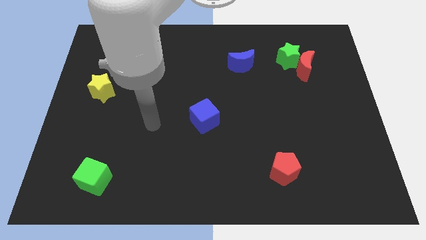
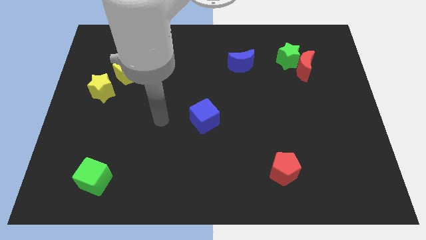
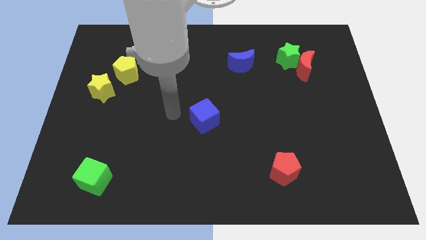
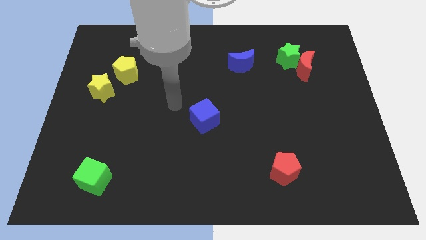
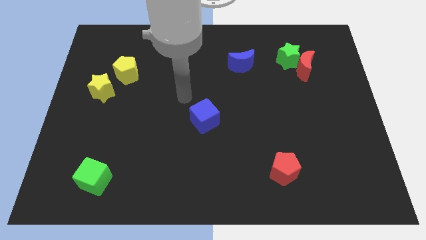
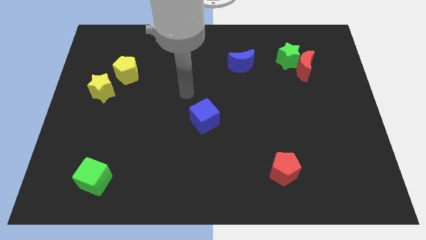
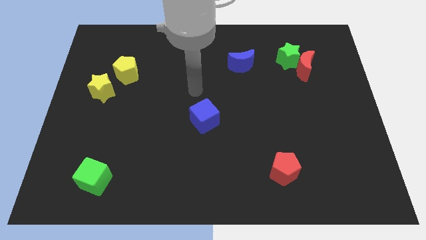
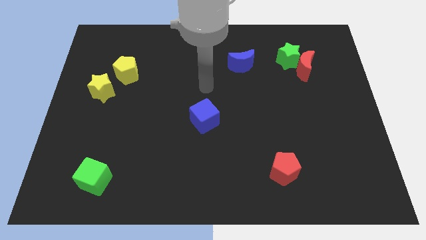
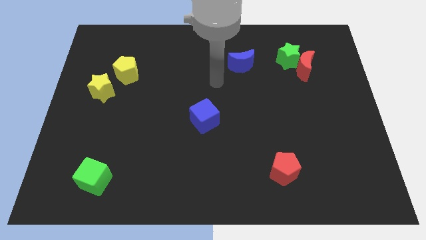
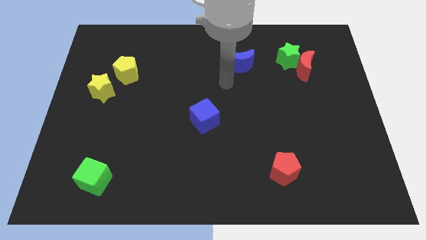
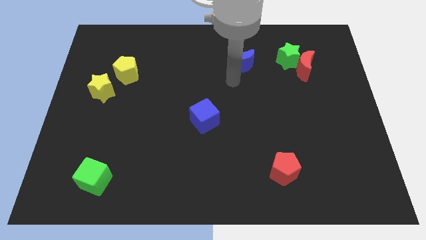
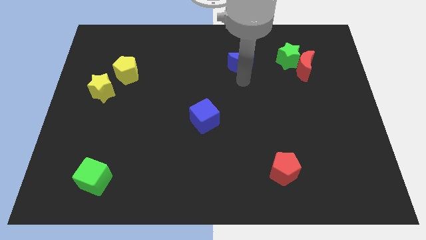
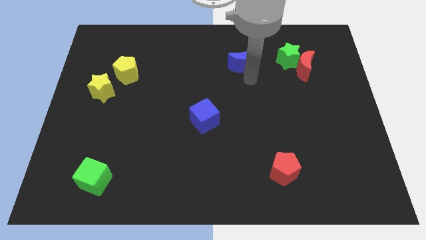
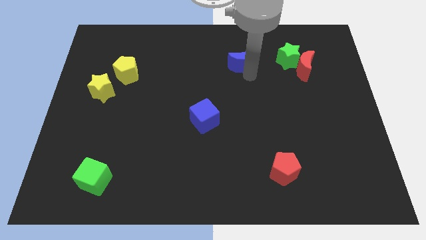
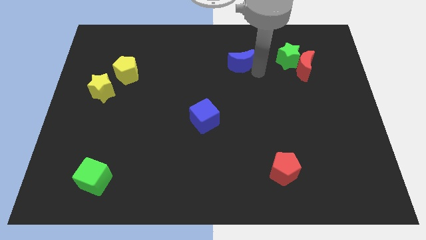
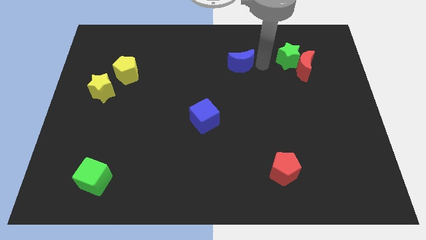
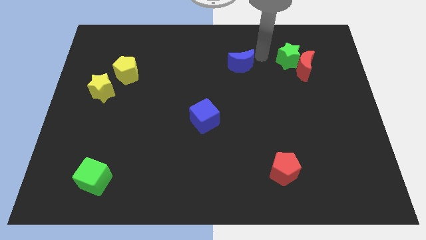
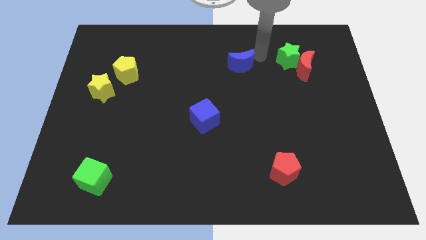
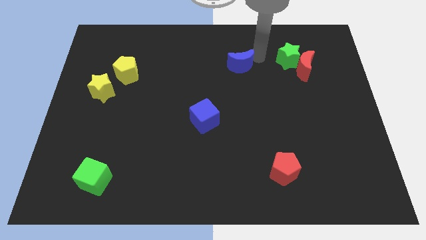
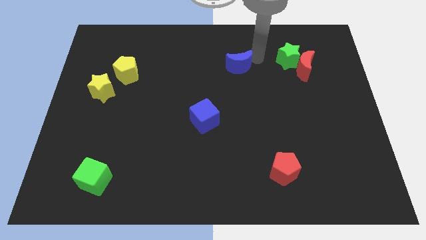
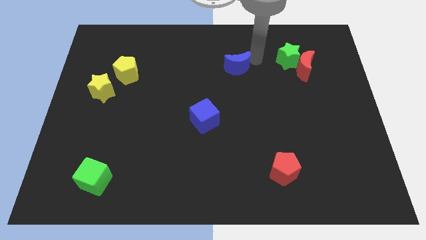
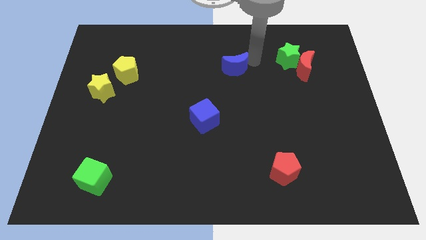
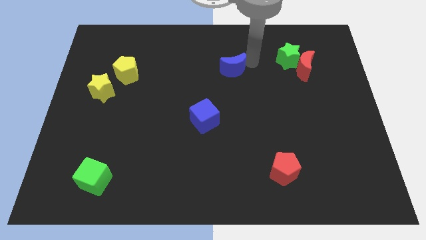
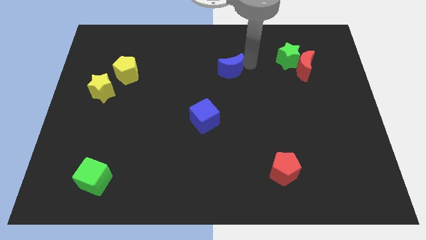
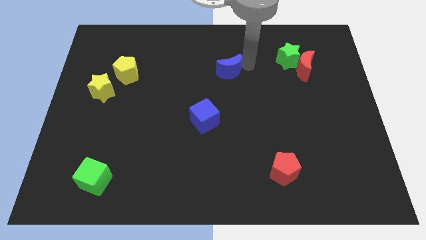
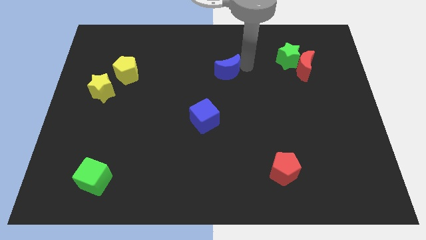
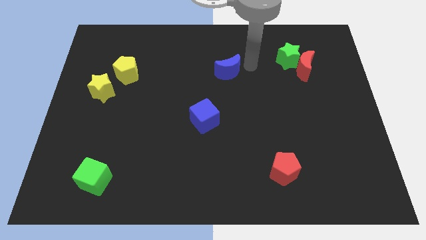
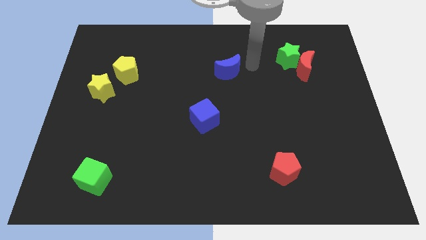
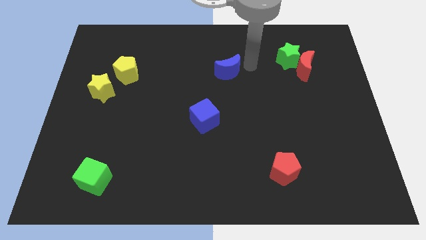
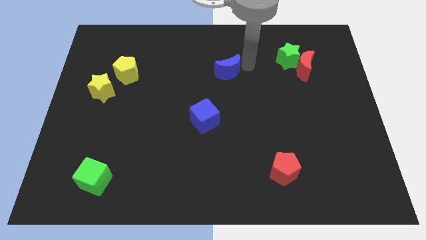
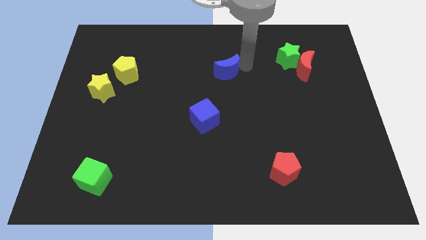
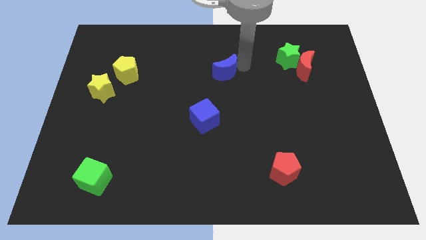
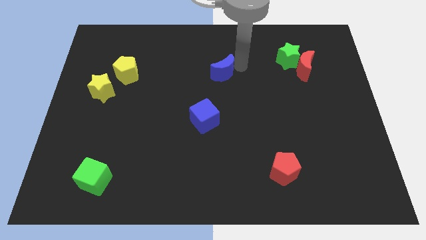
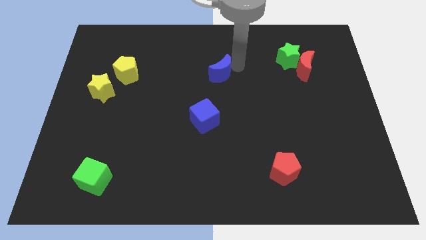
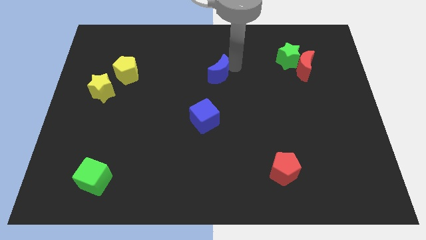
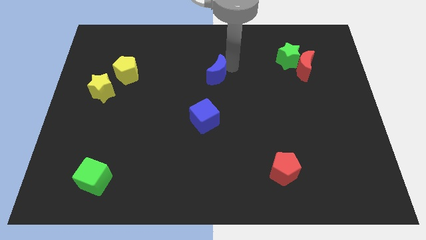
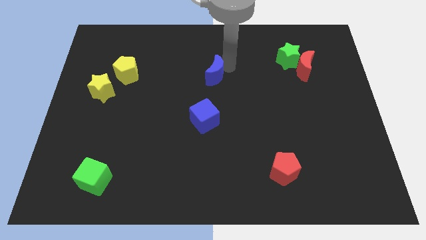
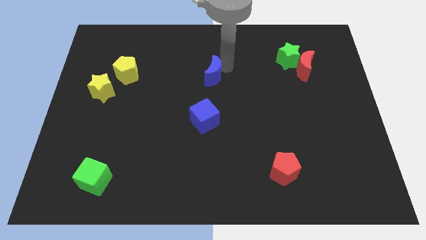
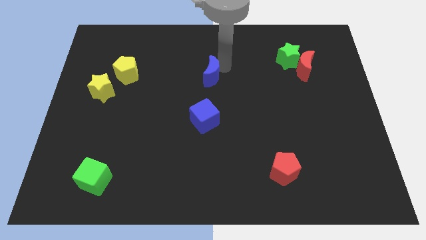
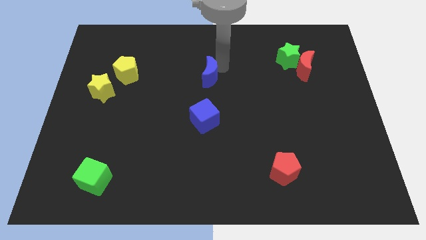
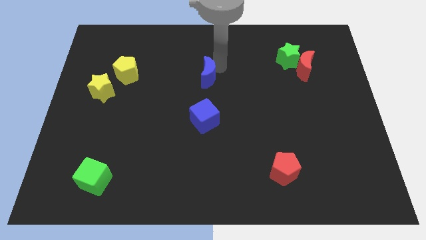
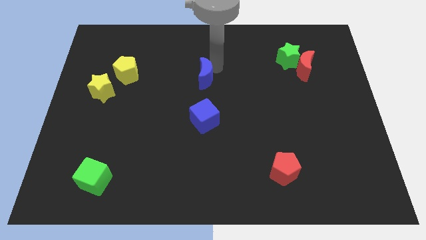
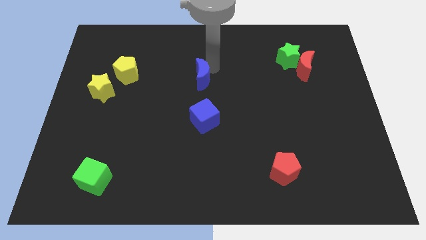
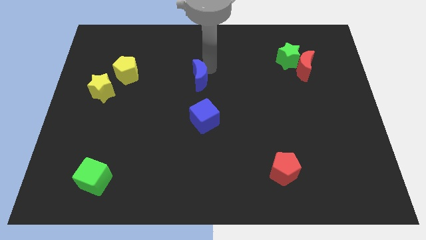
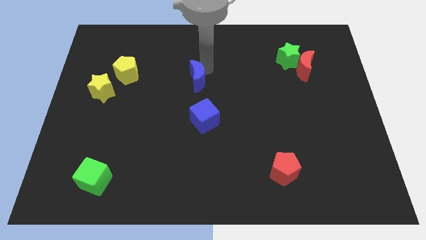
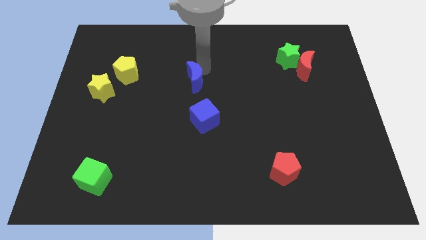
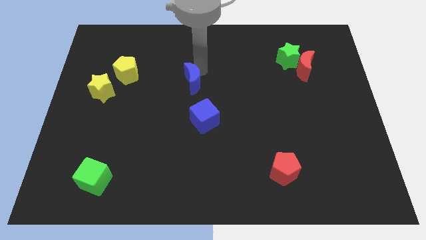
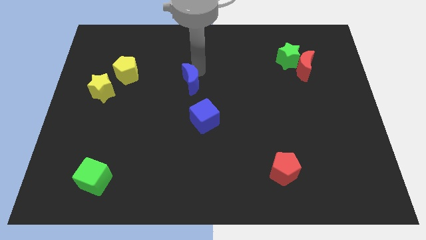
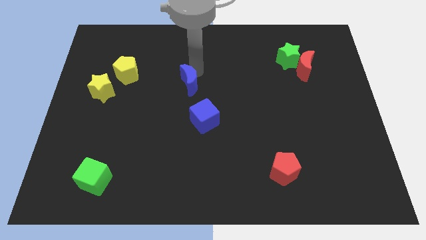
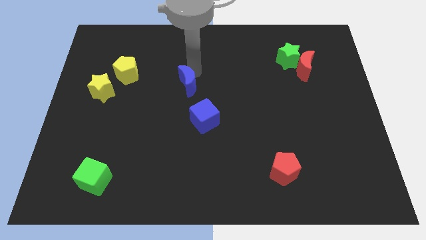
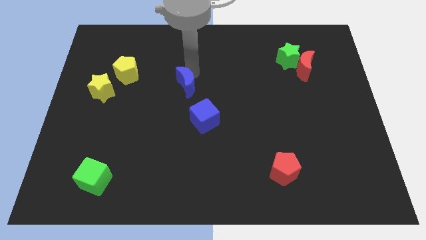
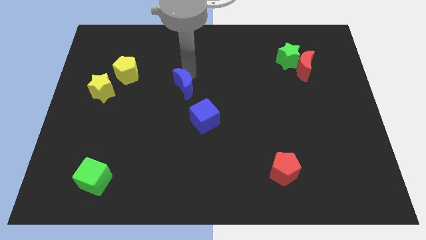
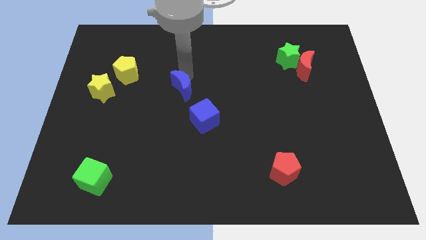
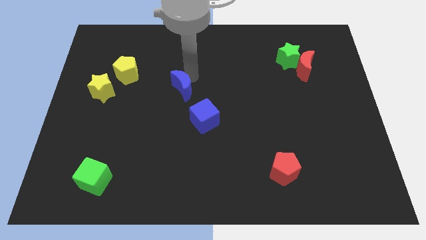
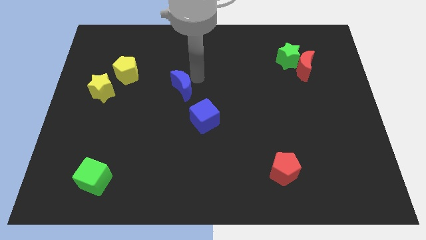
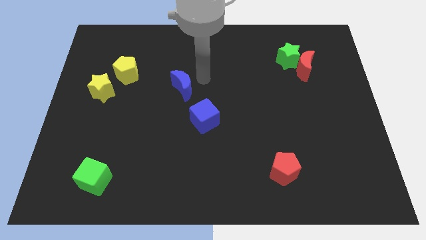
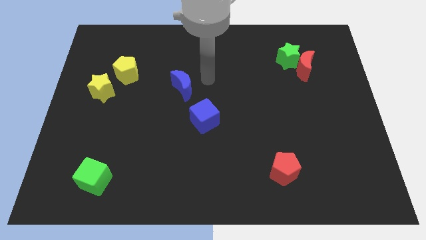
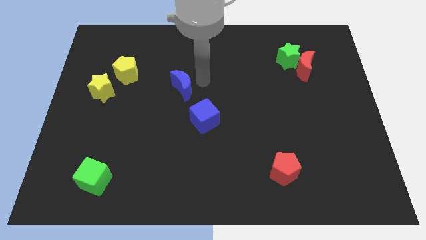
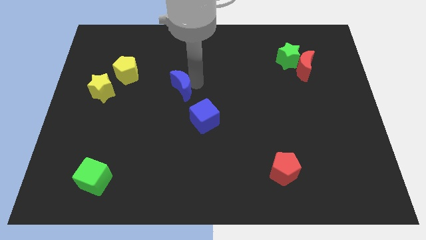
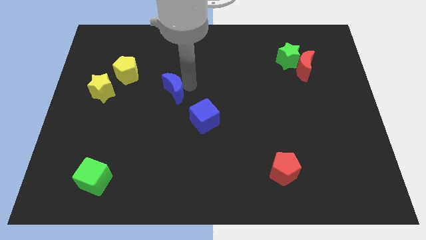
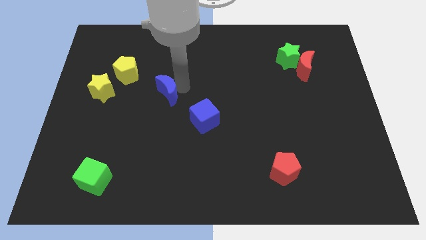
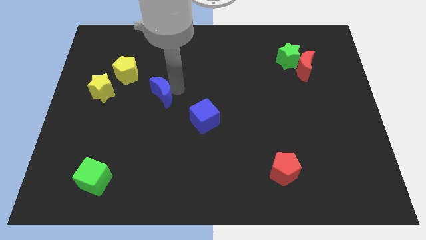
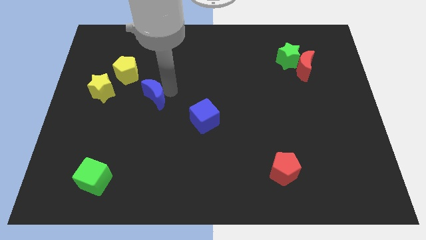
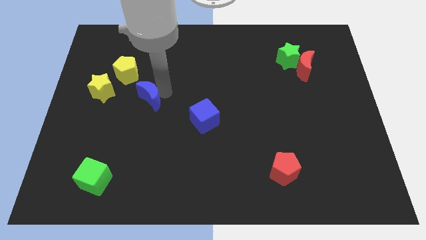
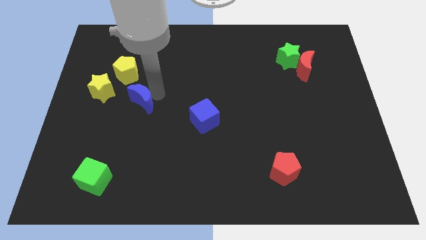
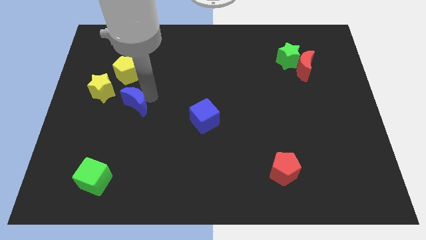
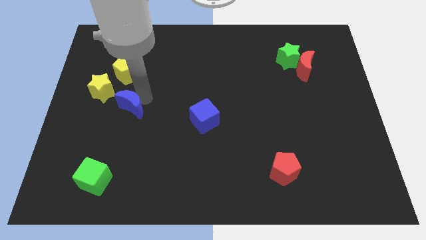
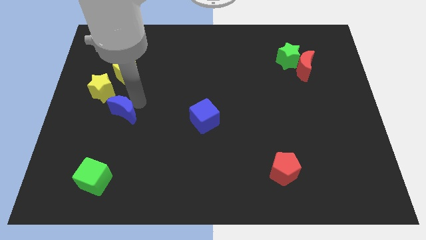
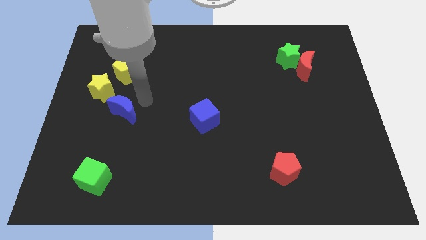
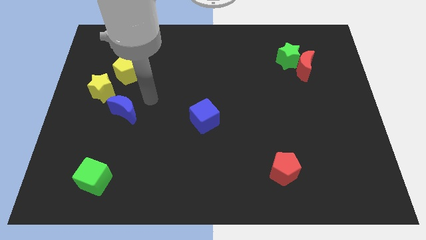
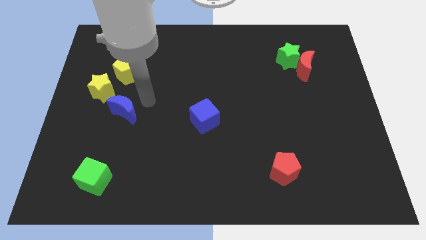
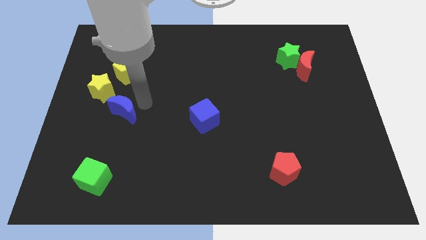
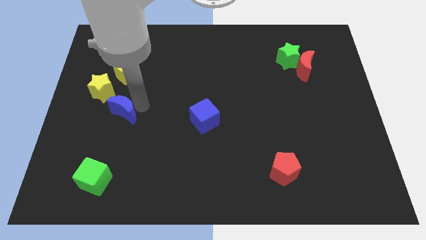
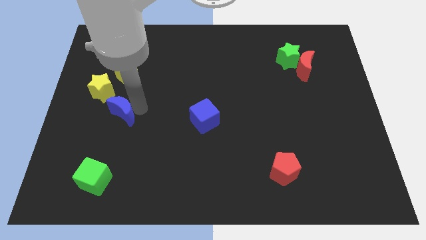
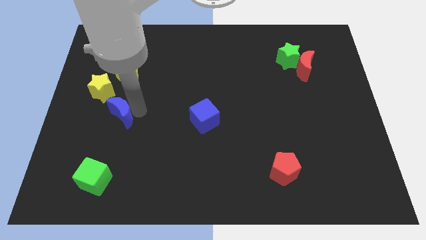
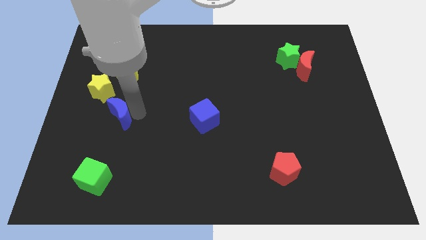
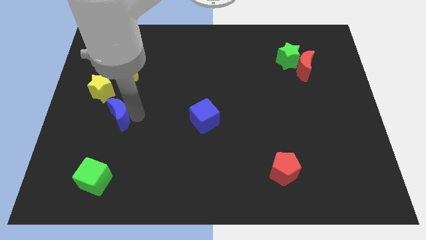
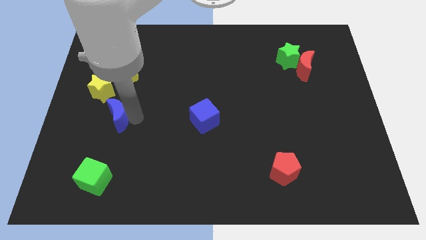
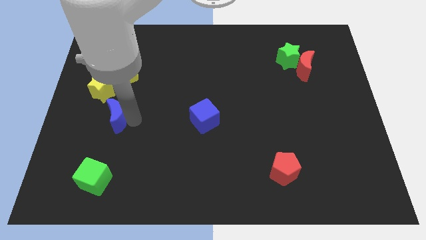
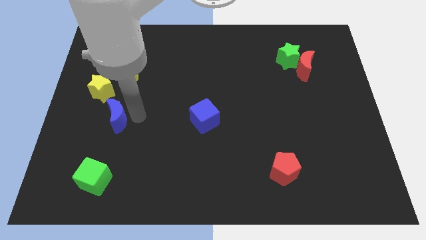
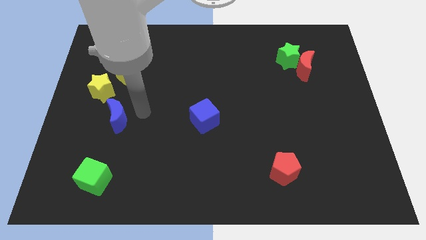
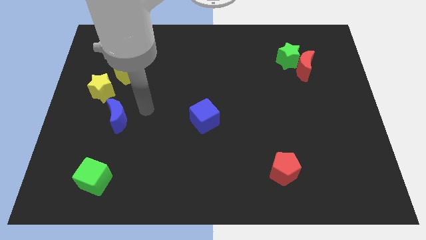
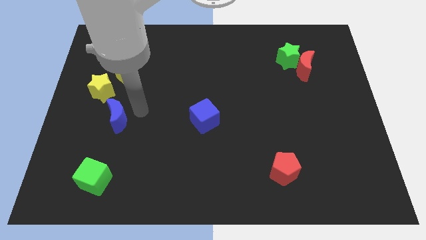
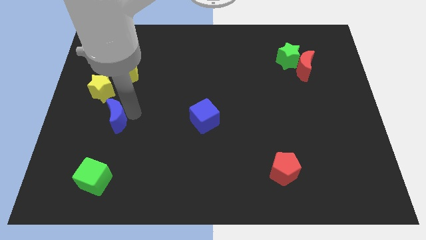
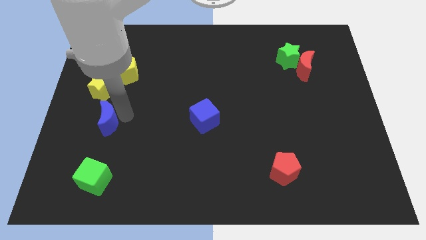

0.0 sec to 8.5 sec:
put the blue moon to the bottom side of the yellow star
